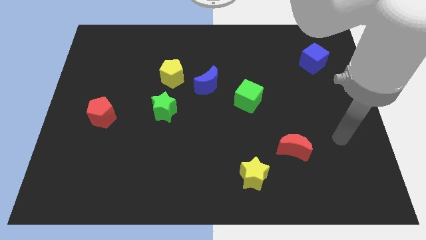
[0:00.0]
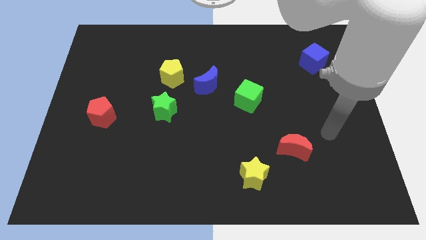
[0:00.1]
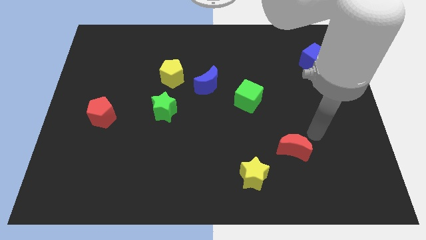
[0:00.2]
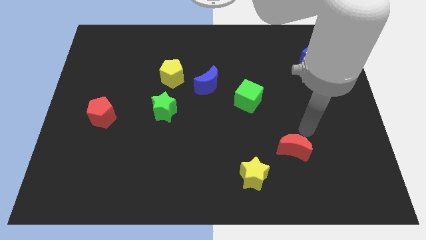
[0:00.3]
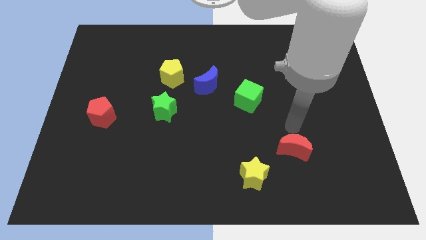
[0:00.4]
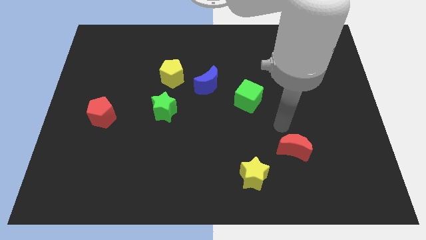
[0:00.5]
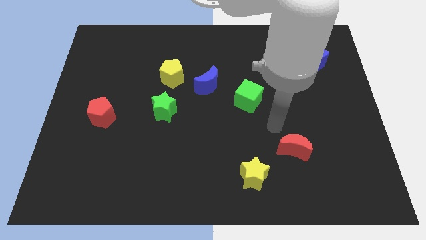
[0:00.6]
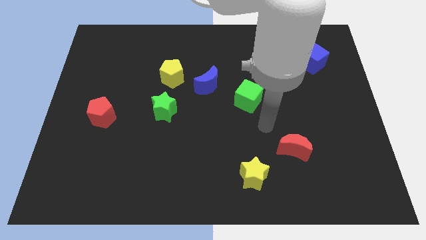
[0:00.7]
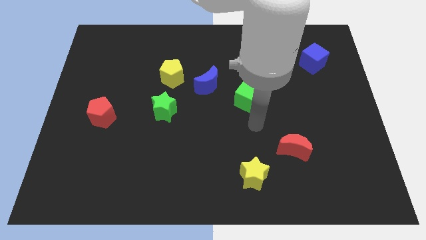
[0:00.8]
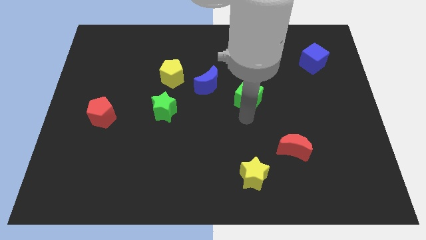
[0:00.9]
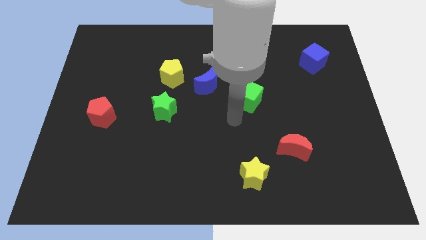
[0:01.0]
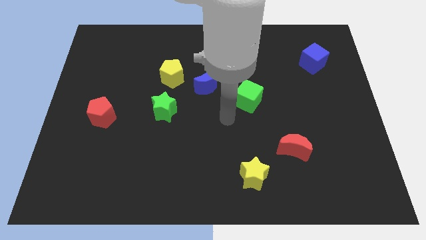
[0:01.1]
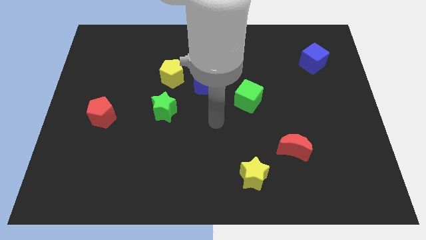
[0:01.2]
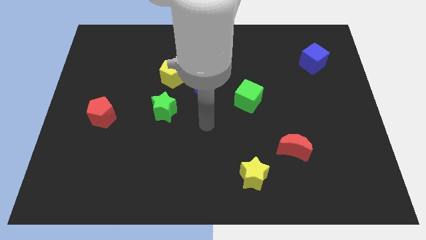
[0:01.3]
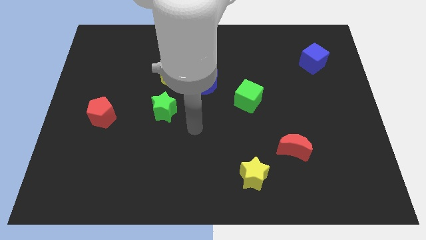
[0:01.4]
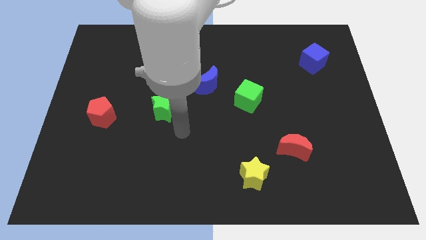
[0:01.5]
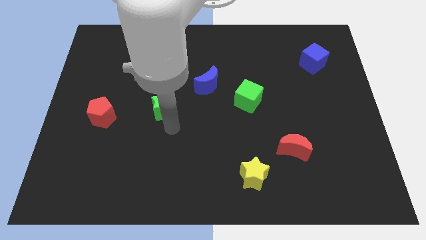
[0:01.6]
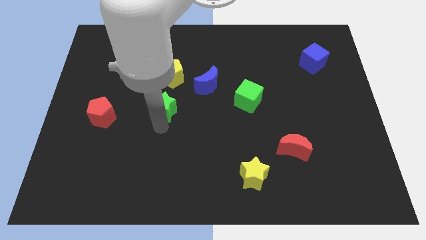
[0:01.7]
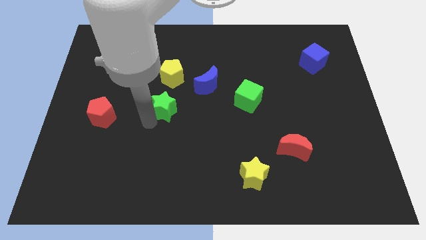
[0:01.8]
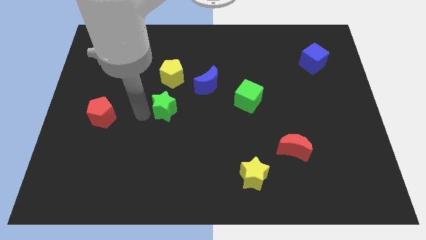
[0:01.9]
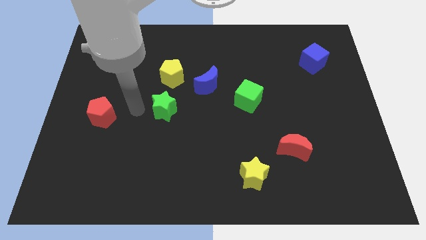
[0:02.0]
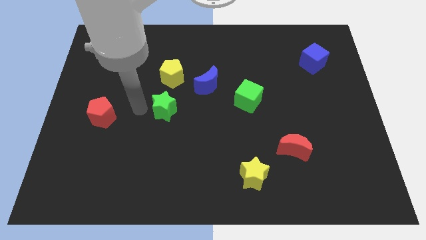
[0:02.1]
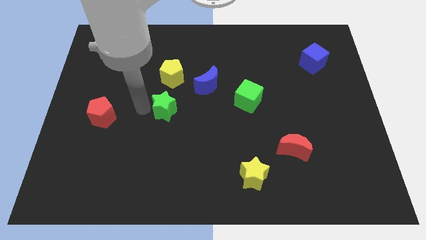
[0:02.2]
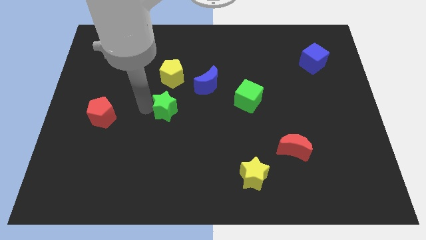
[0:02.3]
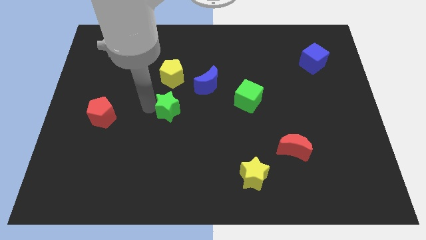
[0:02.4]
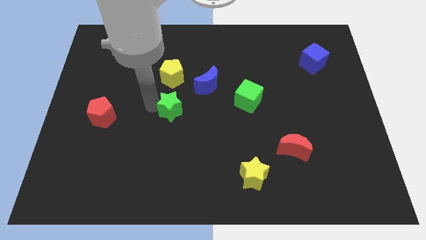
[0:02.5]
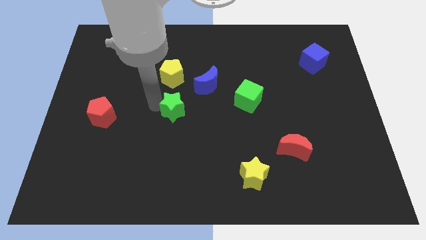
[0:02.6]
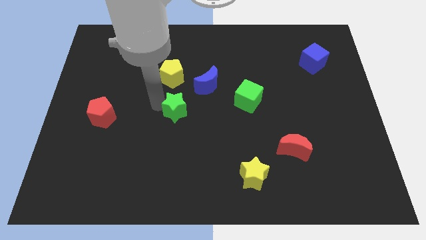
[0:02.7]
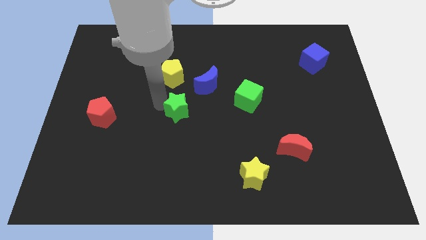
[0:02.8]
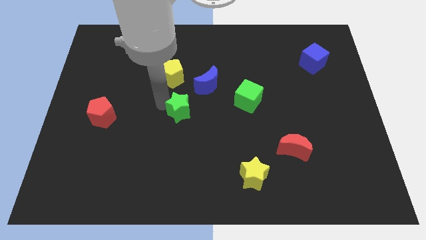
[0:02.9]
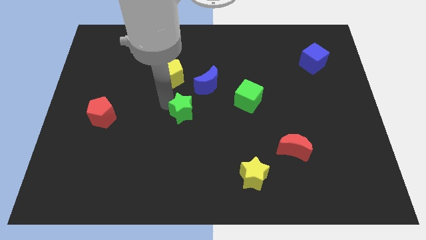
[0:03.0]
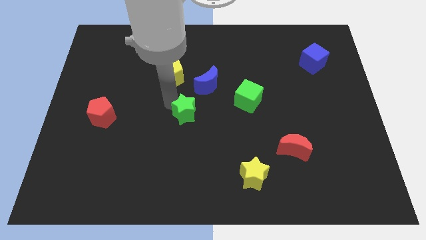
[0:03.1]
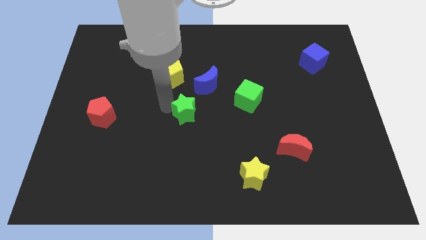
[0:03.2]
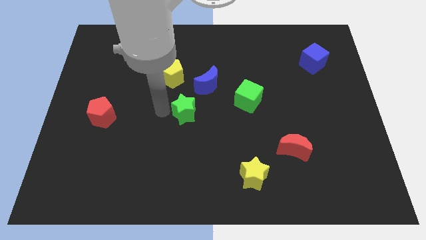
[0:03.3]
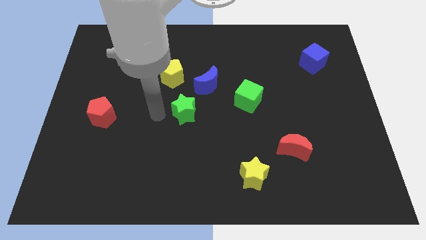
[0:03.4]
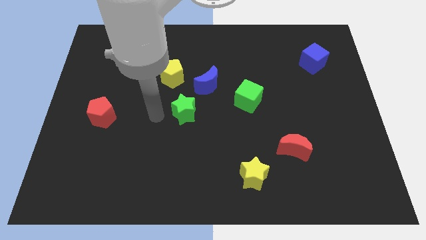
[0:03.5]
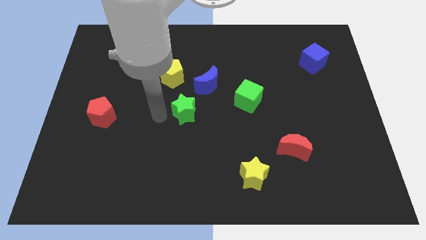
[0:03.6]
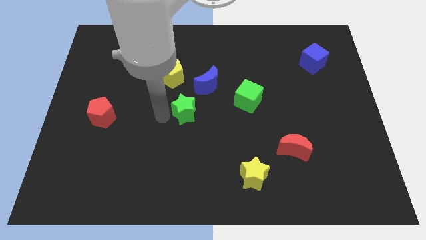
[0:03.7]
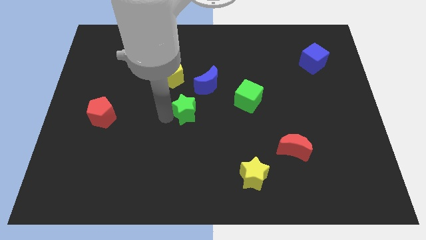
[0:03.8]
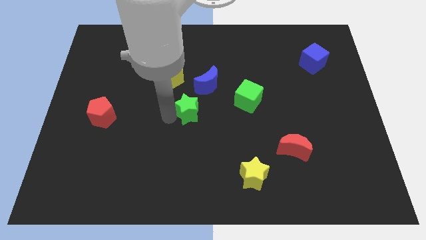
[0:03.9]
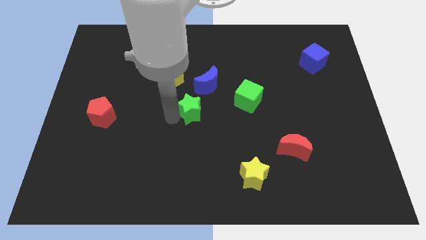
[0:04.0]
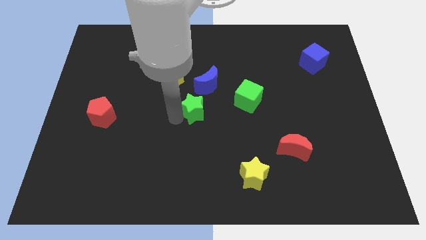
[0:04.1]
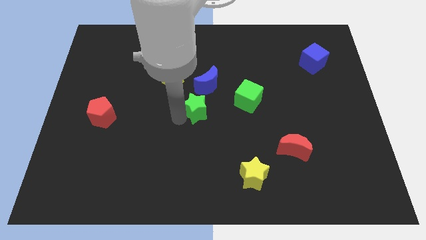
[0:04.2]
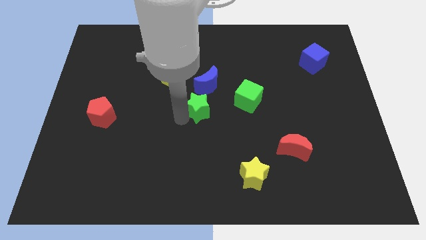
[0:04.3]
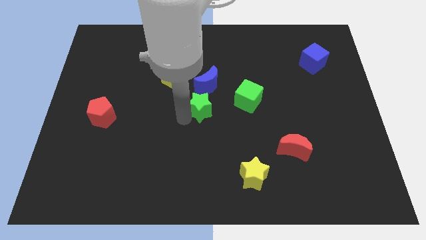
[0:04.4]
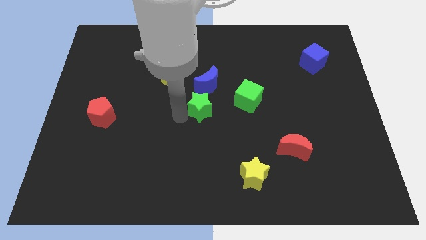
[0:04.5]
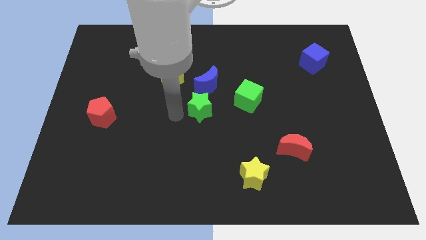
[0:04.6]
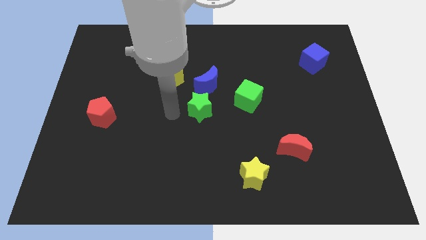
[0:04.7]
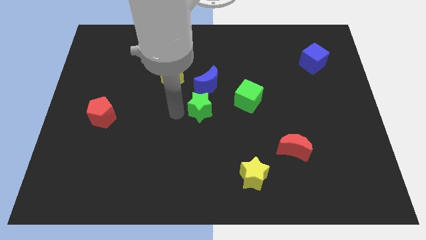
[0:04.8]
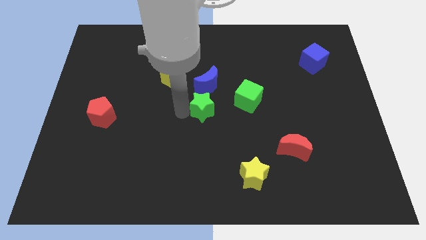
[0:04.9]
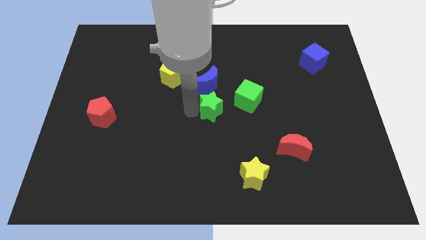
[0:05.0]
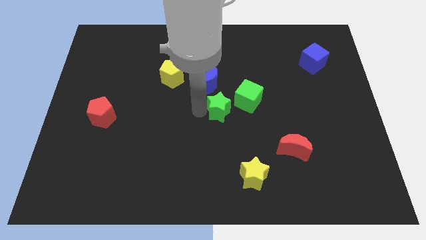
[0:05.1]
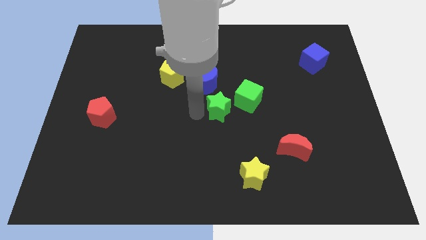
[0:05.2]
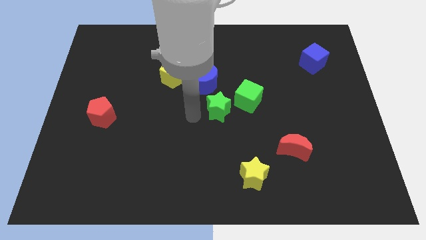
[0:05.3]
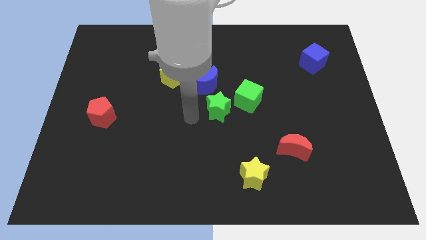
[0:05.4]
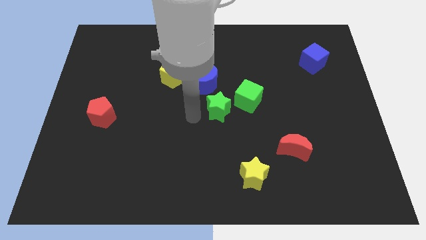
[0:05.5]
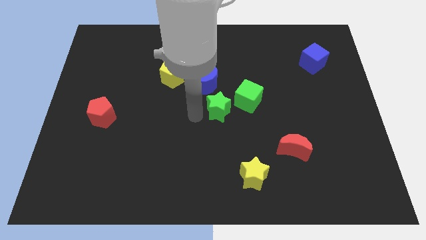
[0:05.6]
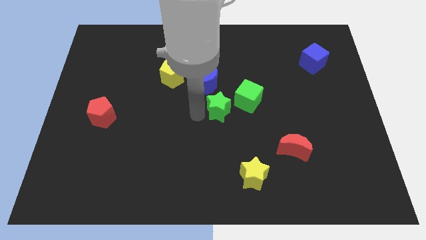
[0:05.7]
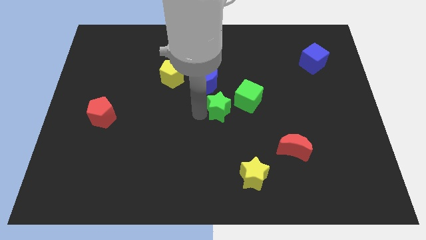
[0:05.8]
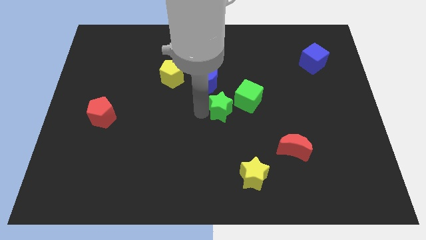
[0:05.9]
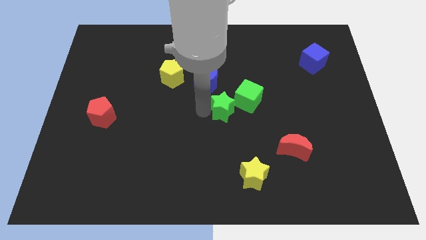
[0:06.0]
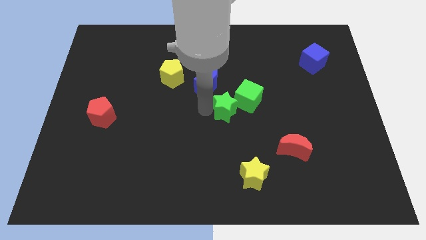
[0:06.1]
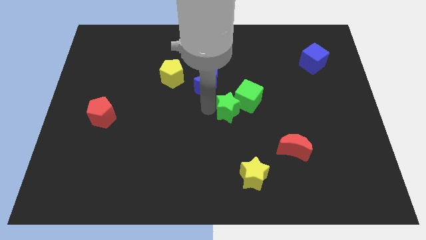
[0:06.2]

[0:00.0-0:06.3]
slide the green star to the green cube

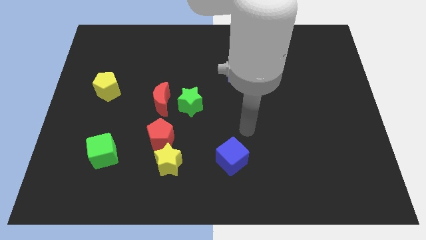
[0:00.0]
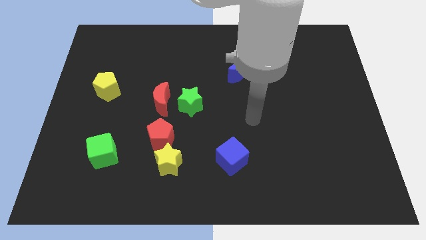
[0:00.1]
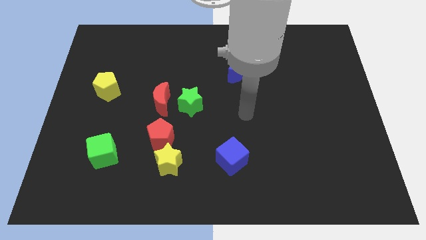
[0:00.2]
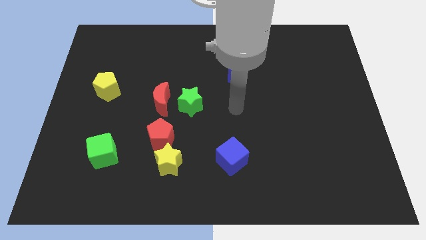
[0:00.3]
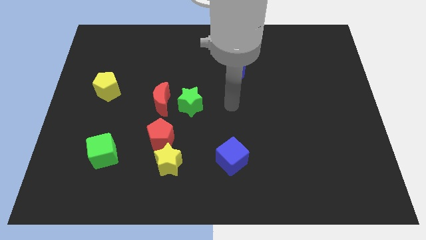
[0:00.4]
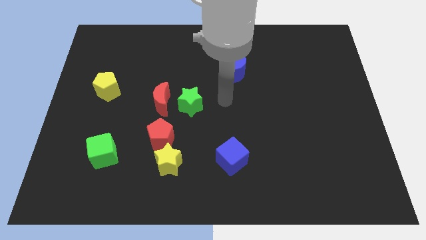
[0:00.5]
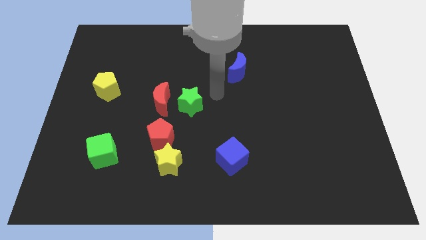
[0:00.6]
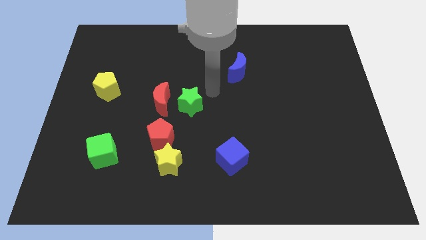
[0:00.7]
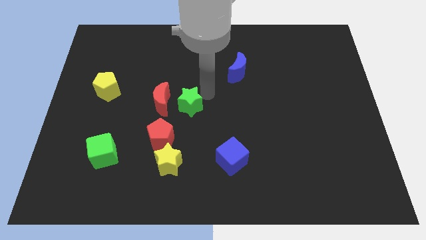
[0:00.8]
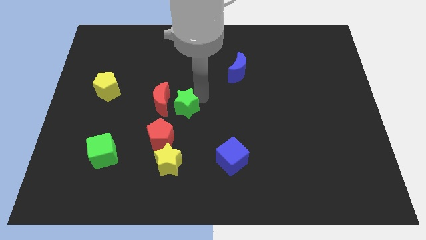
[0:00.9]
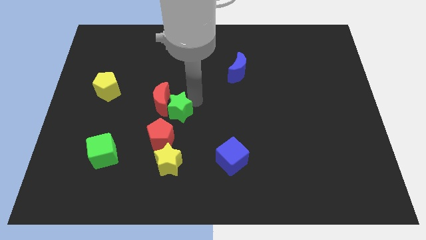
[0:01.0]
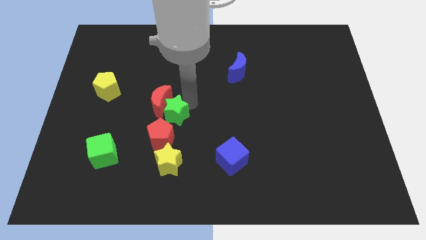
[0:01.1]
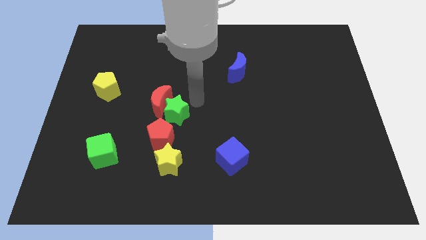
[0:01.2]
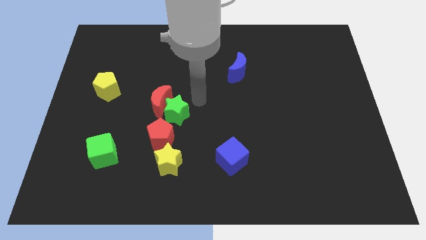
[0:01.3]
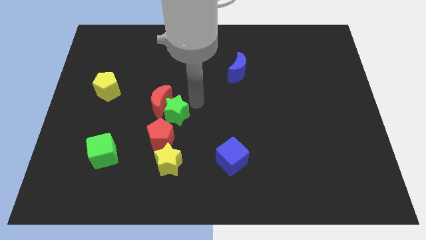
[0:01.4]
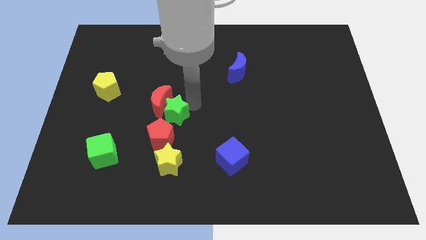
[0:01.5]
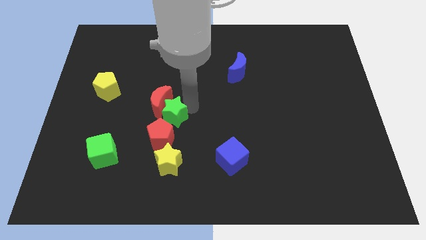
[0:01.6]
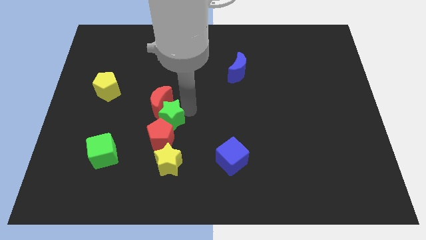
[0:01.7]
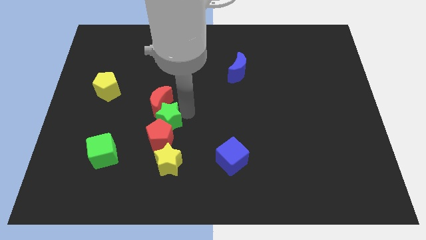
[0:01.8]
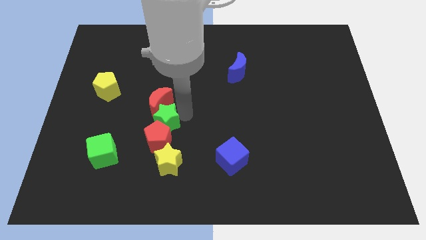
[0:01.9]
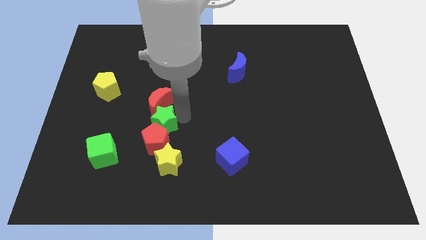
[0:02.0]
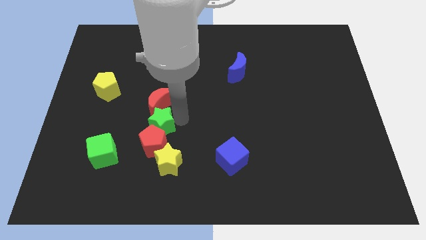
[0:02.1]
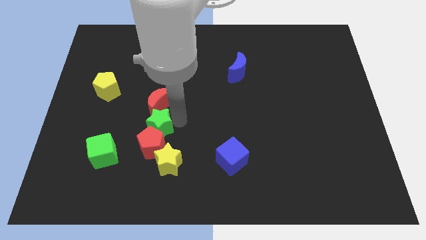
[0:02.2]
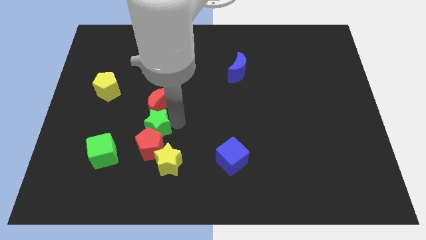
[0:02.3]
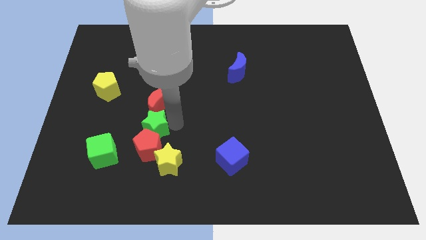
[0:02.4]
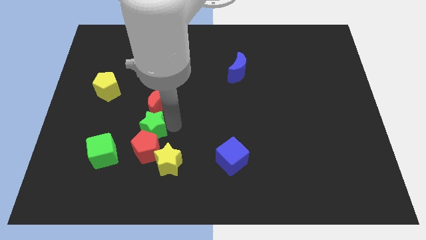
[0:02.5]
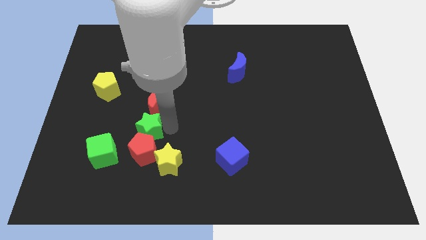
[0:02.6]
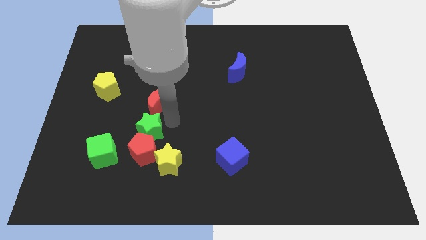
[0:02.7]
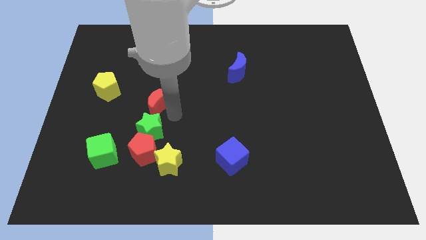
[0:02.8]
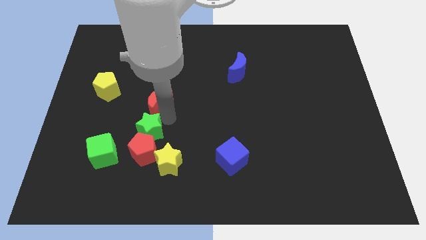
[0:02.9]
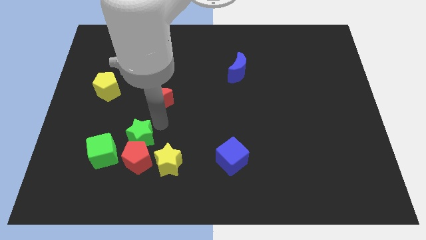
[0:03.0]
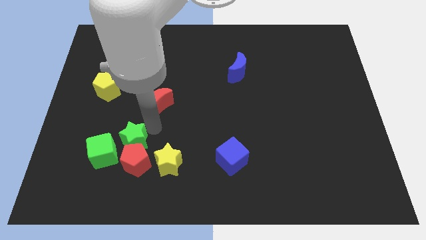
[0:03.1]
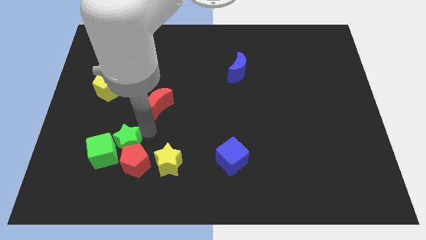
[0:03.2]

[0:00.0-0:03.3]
slide the green star next to the green cube
